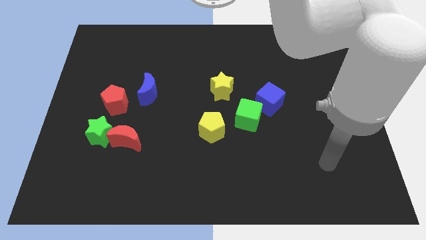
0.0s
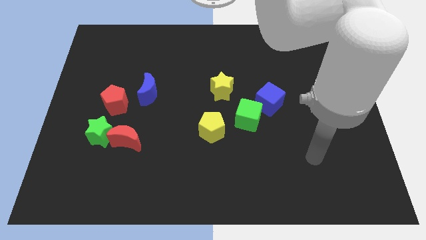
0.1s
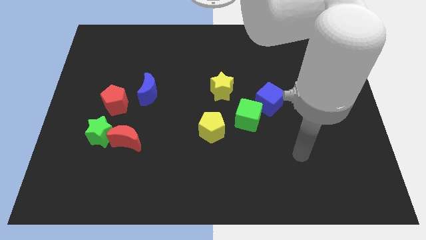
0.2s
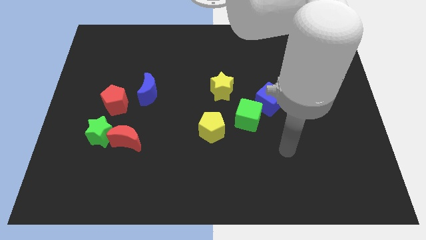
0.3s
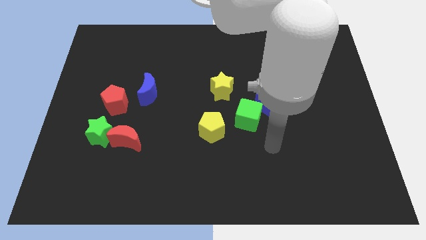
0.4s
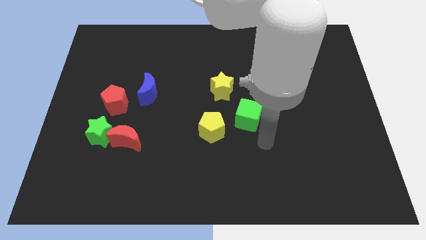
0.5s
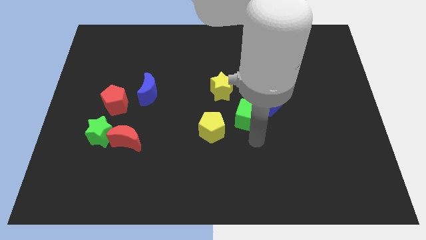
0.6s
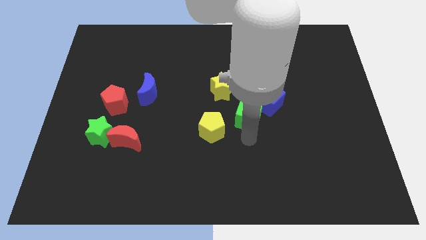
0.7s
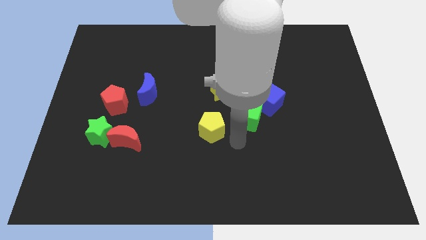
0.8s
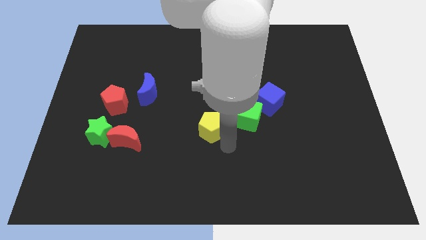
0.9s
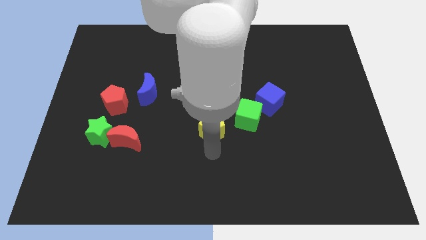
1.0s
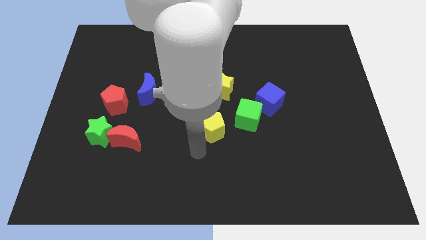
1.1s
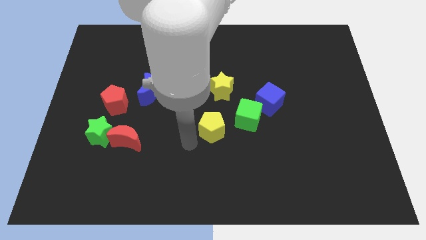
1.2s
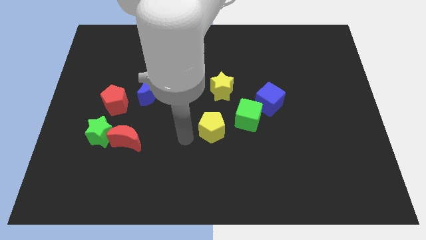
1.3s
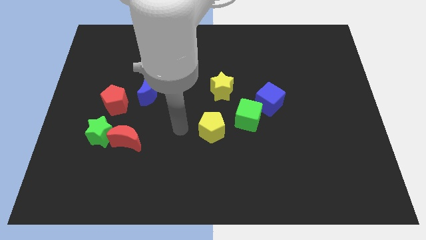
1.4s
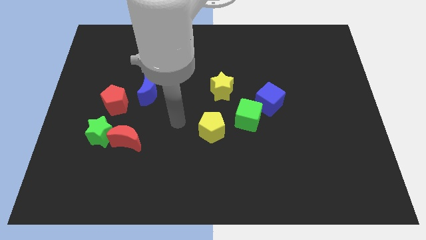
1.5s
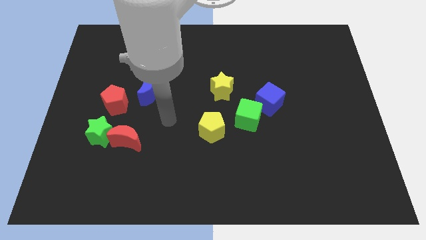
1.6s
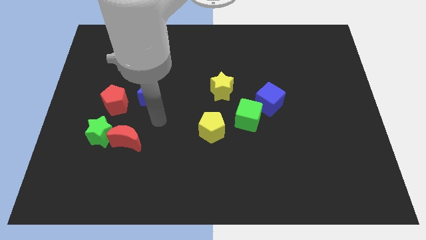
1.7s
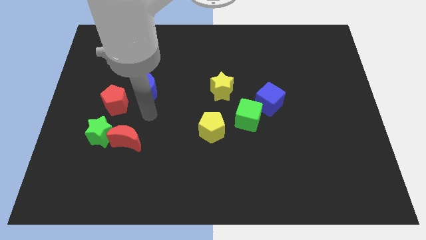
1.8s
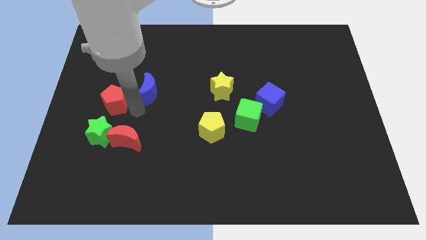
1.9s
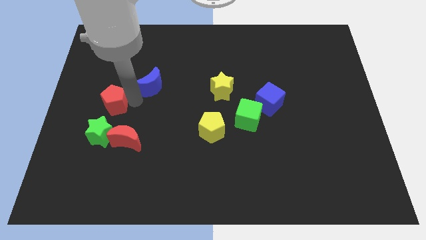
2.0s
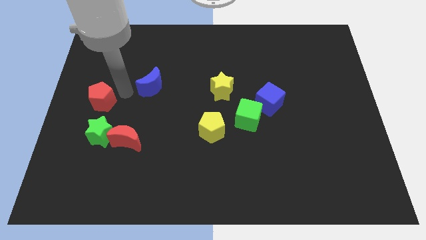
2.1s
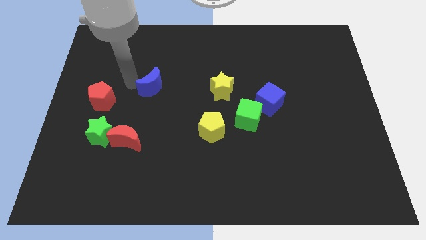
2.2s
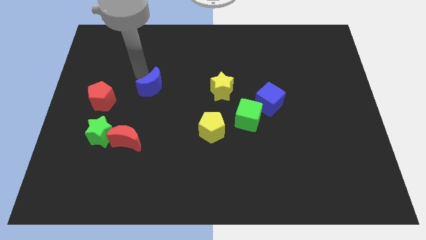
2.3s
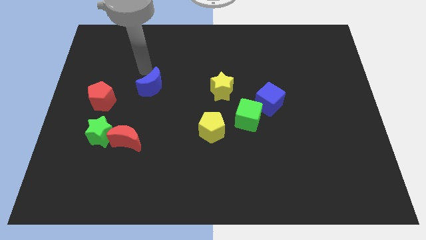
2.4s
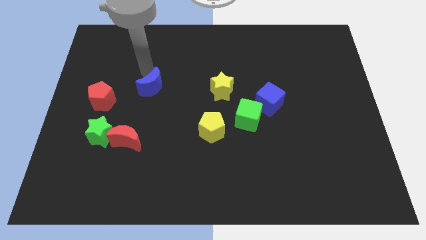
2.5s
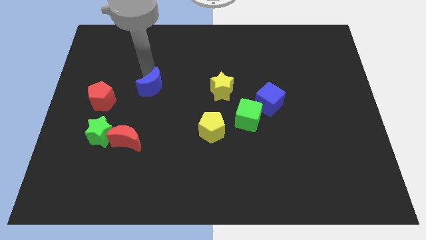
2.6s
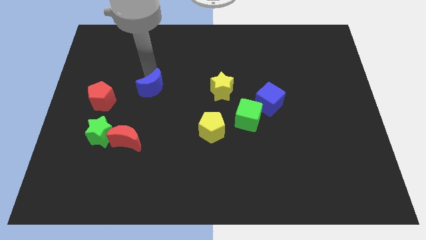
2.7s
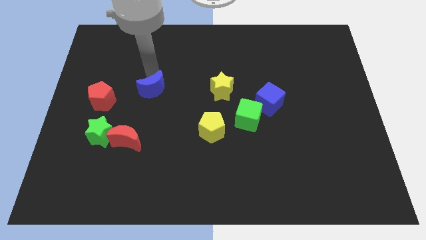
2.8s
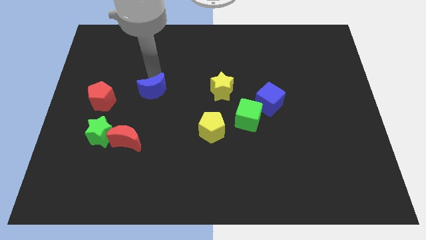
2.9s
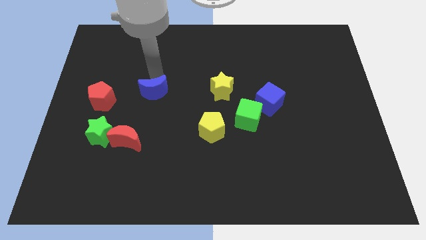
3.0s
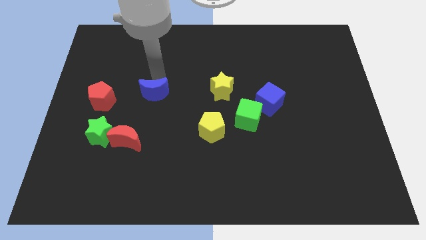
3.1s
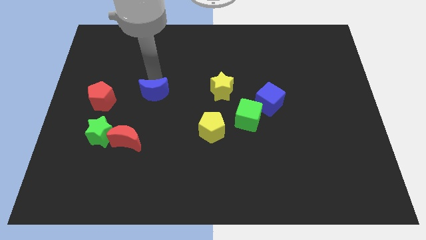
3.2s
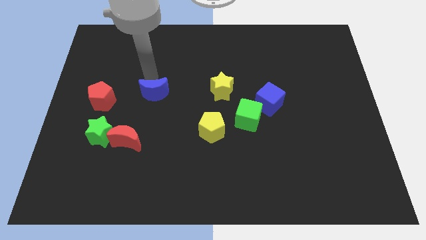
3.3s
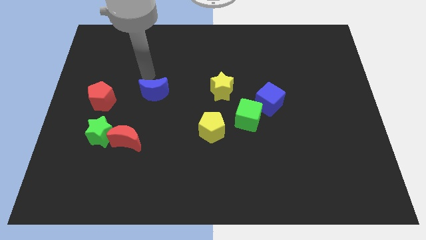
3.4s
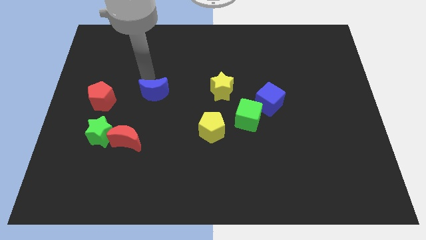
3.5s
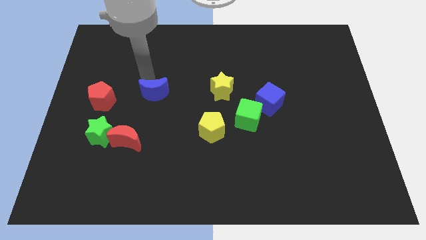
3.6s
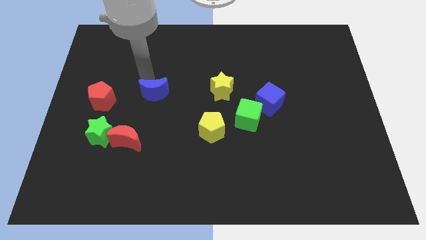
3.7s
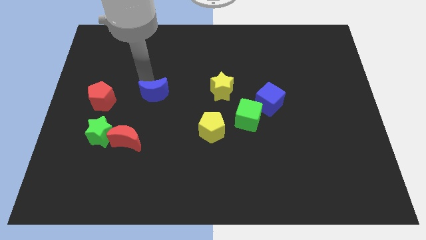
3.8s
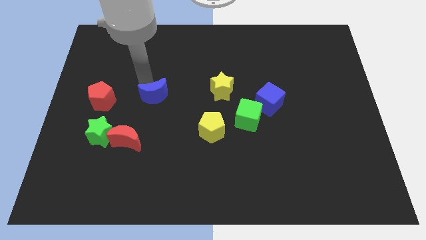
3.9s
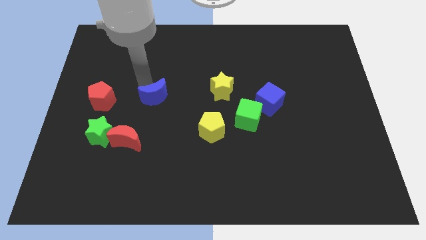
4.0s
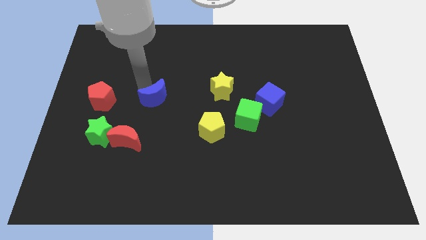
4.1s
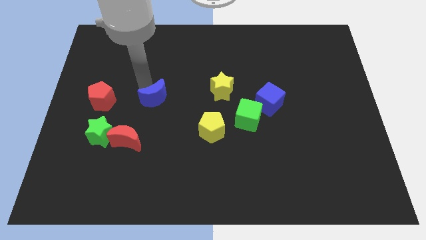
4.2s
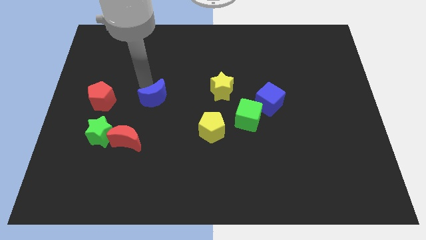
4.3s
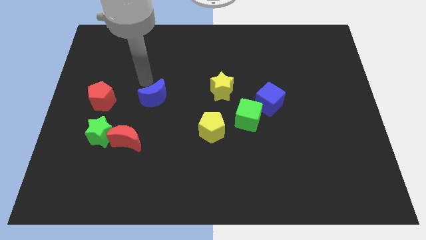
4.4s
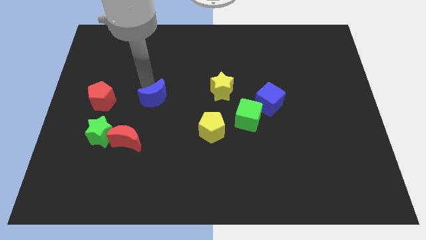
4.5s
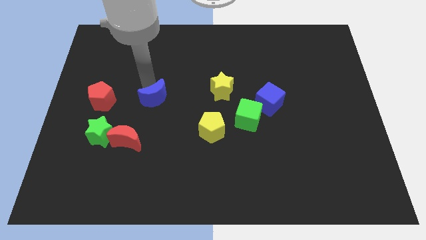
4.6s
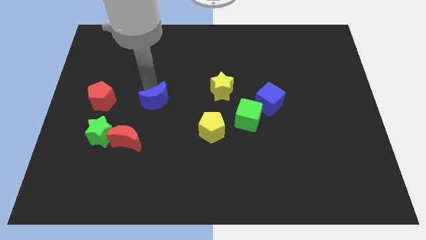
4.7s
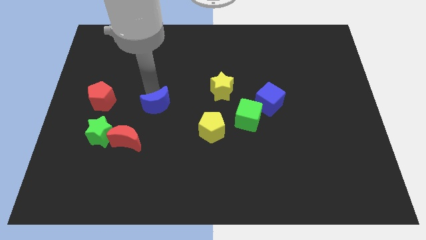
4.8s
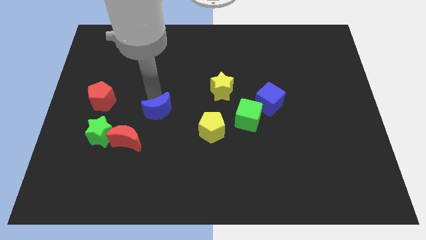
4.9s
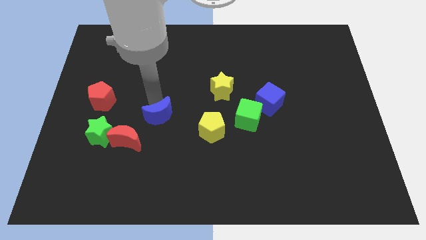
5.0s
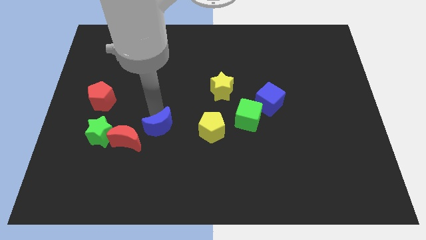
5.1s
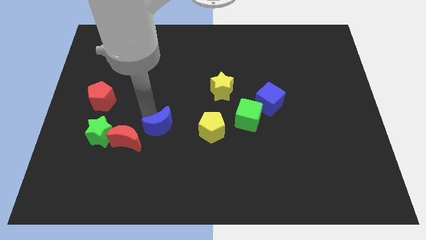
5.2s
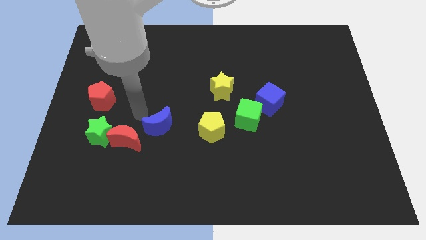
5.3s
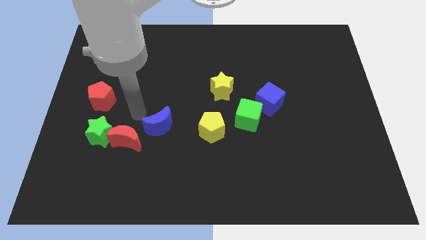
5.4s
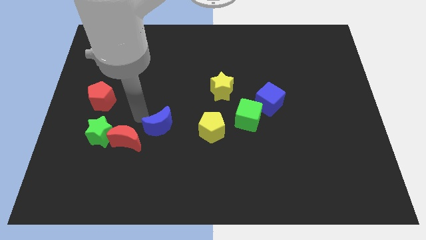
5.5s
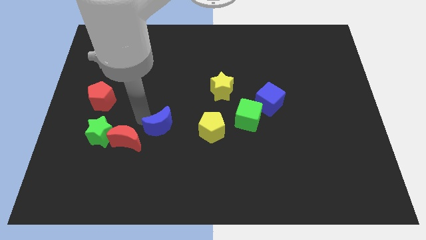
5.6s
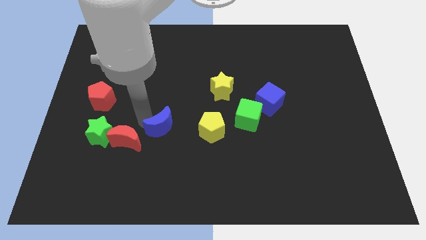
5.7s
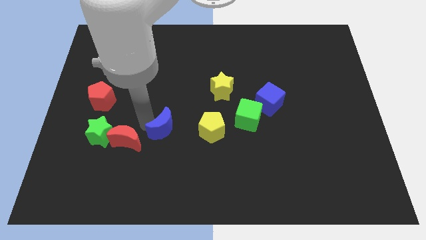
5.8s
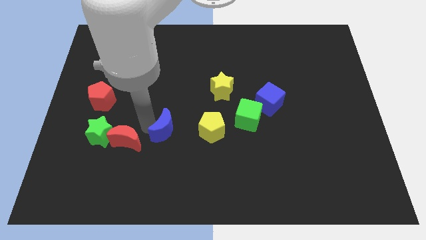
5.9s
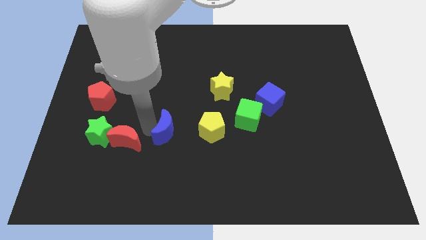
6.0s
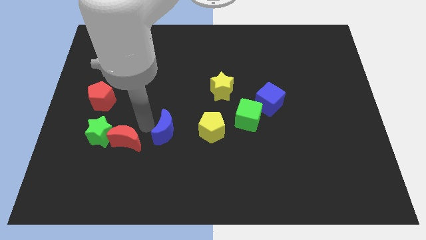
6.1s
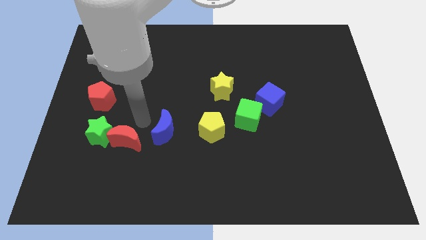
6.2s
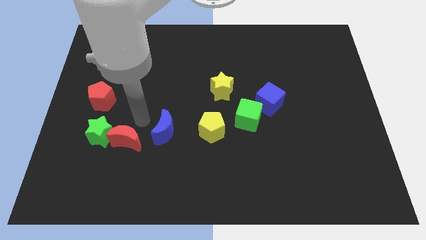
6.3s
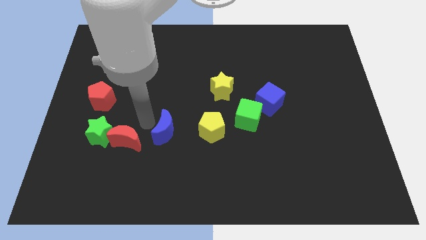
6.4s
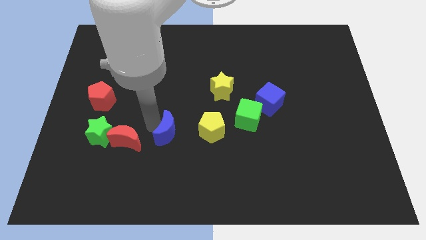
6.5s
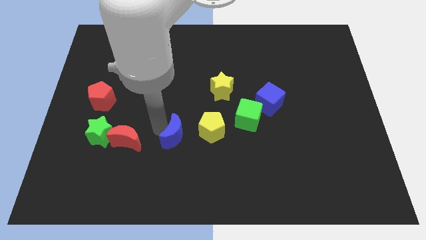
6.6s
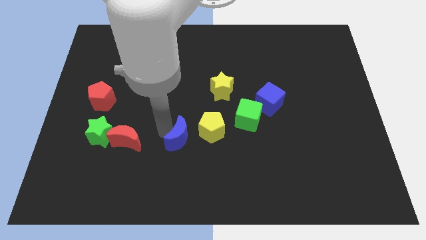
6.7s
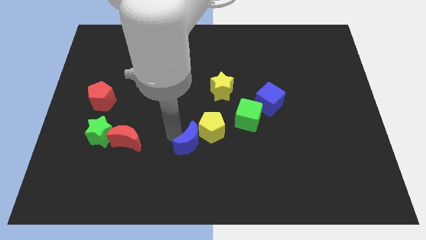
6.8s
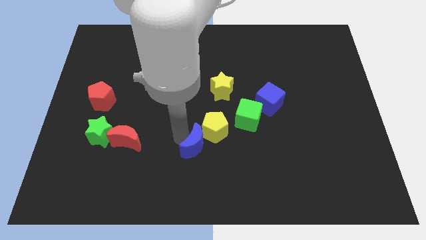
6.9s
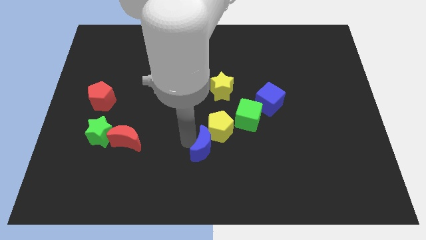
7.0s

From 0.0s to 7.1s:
move the blue moon downwards and to the right diagonally

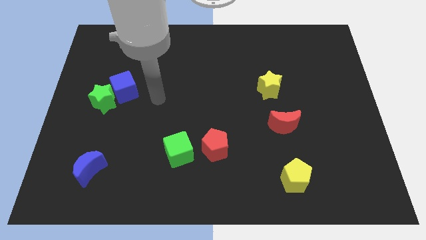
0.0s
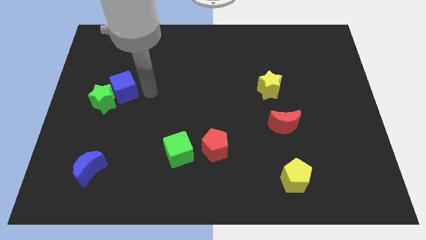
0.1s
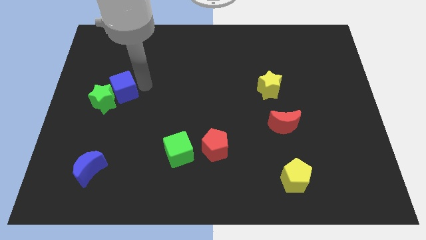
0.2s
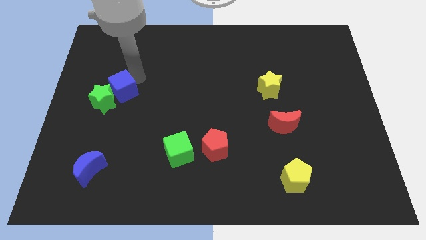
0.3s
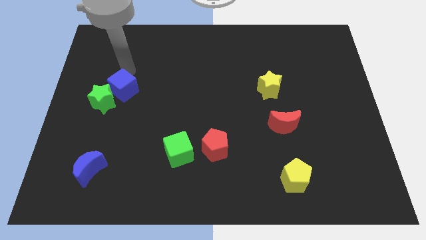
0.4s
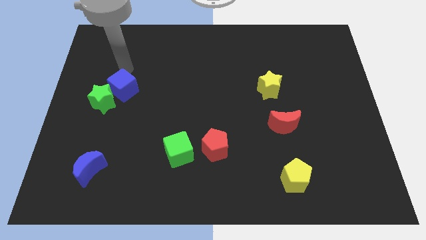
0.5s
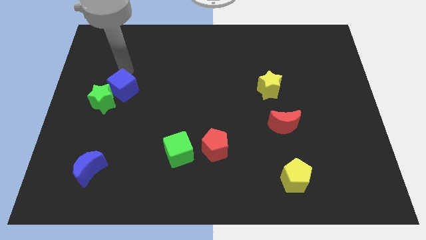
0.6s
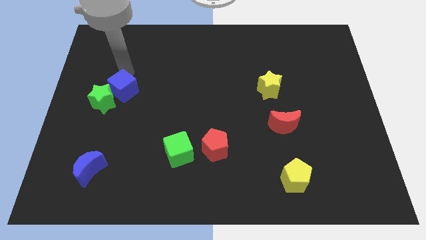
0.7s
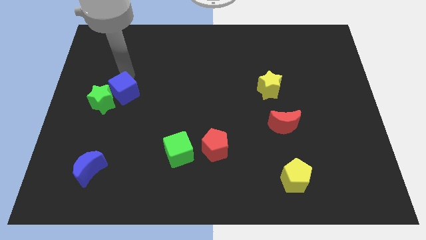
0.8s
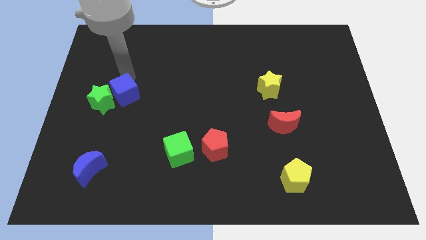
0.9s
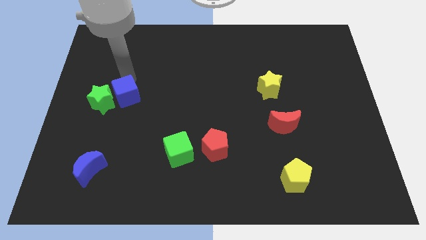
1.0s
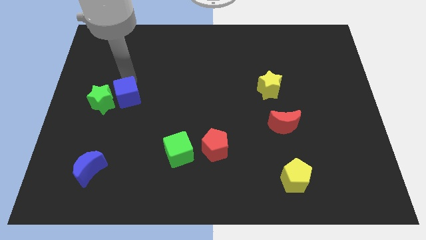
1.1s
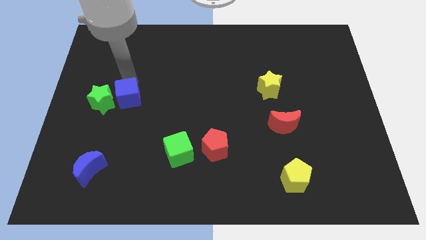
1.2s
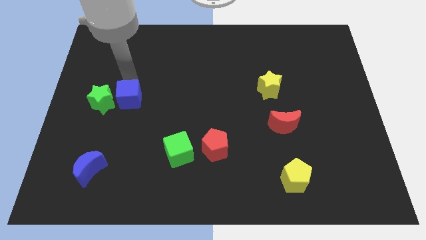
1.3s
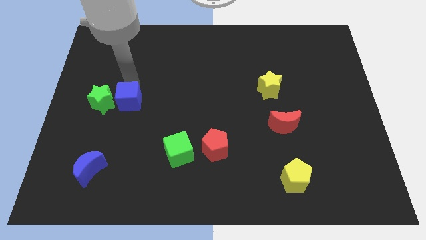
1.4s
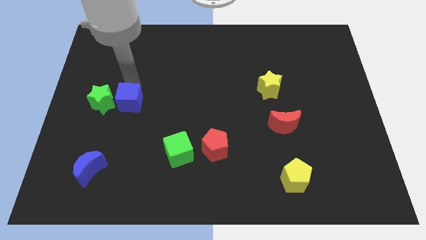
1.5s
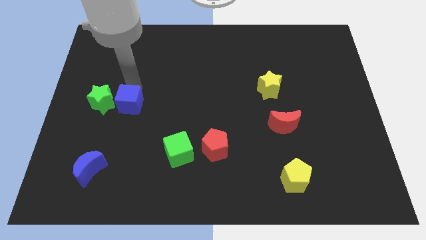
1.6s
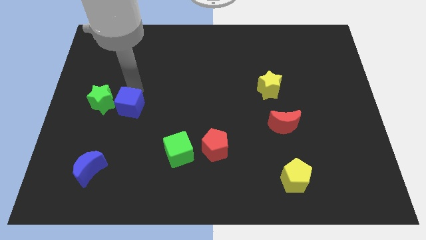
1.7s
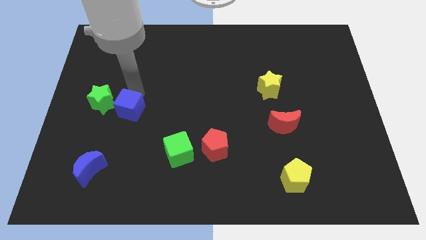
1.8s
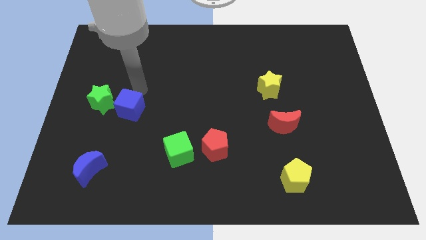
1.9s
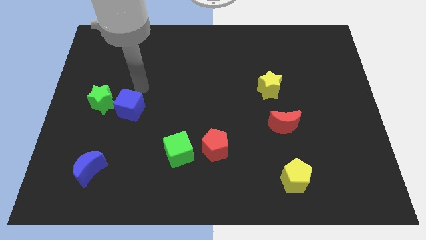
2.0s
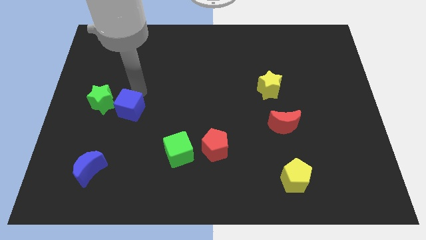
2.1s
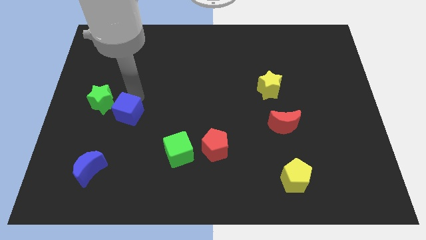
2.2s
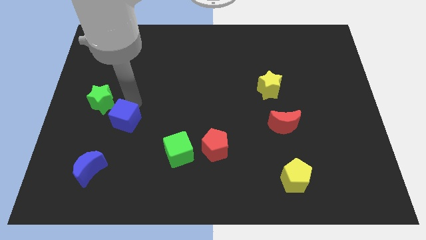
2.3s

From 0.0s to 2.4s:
slightly slide the blue cube down
